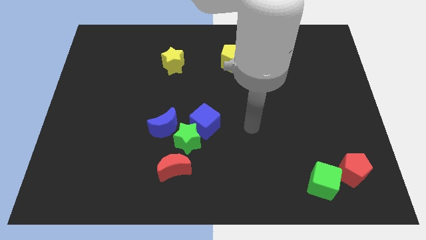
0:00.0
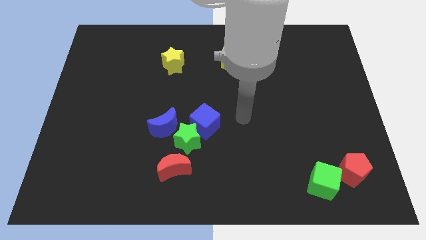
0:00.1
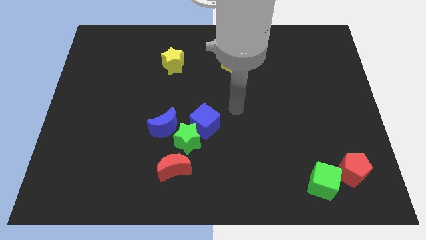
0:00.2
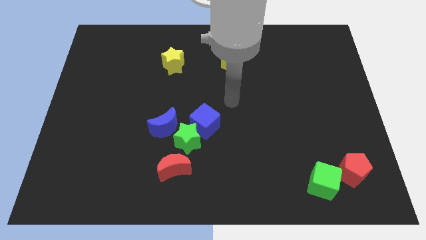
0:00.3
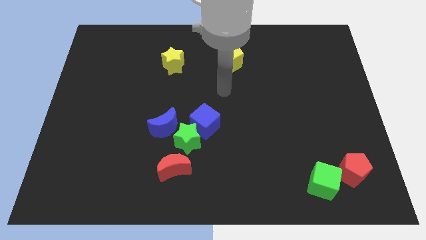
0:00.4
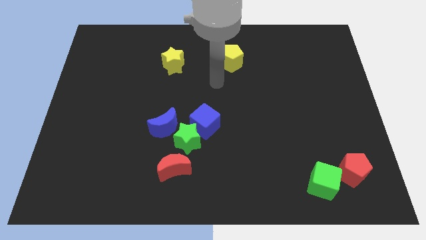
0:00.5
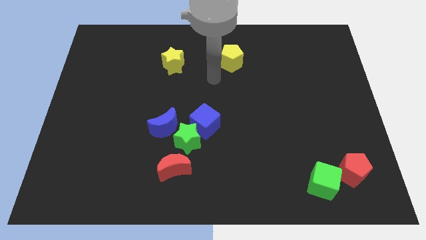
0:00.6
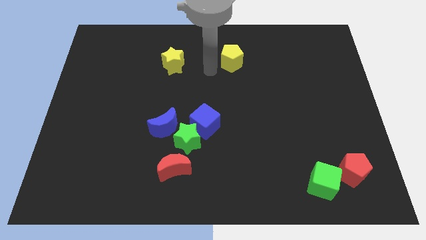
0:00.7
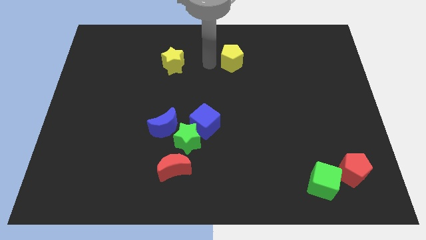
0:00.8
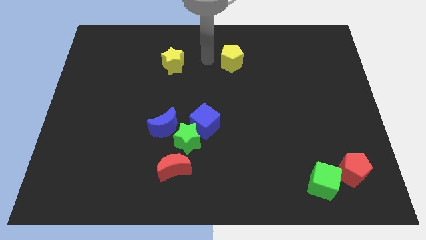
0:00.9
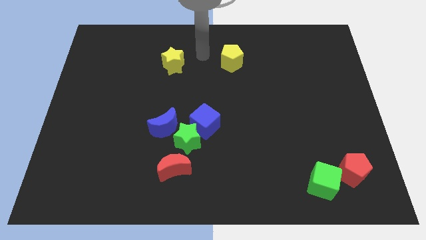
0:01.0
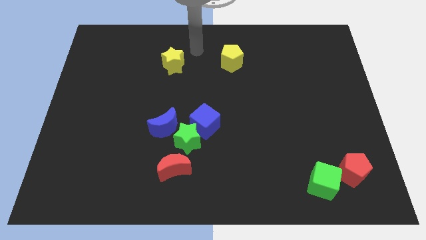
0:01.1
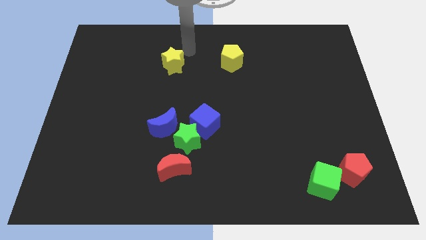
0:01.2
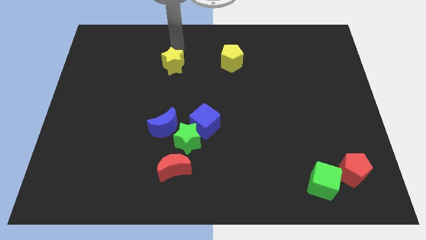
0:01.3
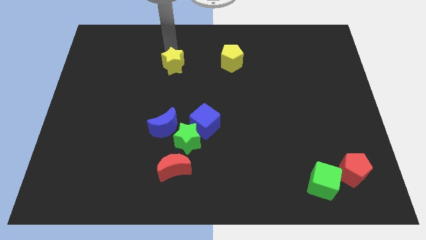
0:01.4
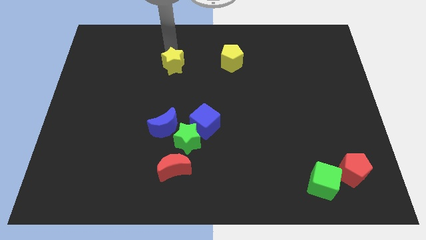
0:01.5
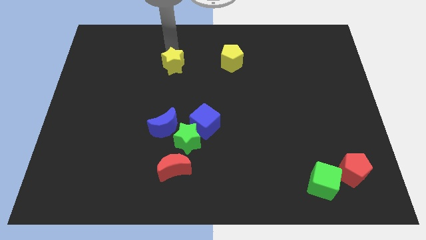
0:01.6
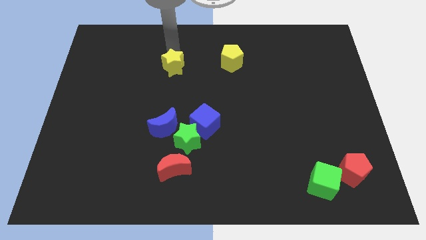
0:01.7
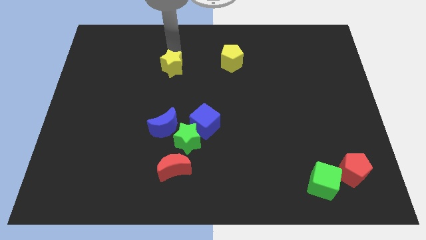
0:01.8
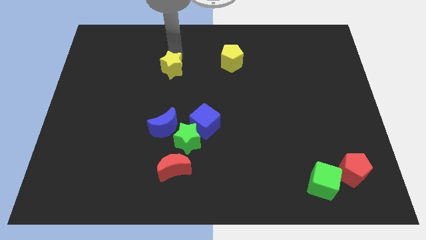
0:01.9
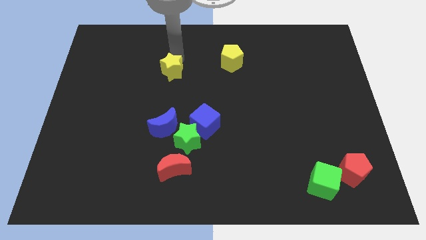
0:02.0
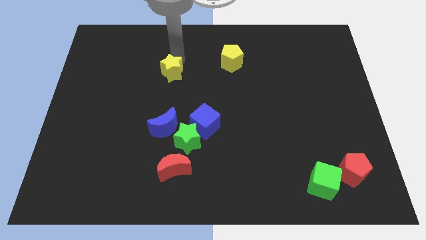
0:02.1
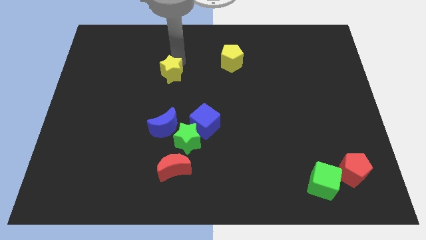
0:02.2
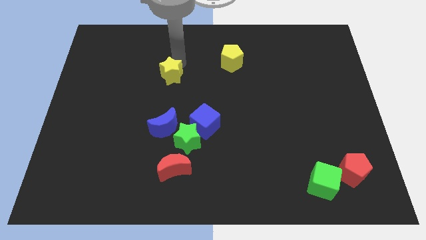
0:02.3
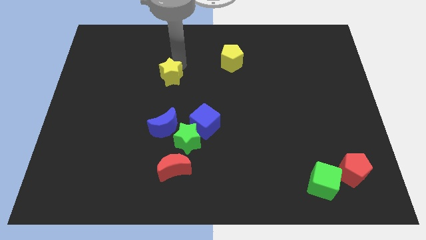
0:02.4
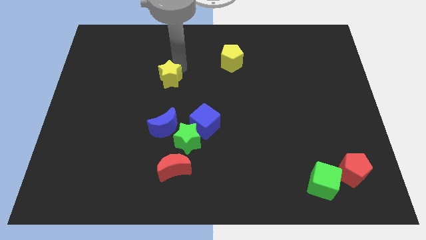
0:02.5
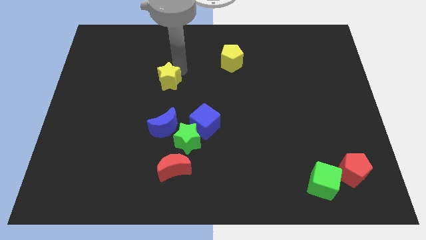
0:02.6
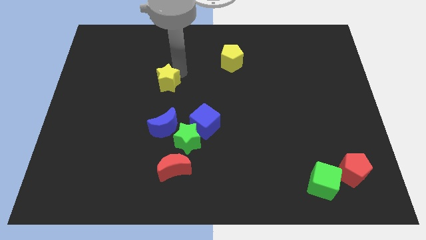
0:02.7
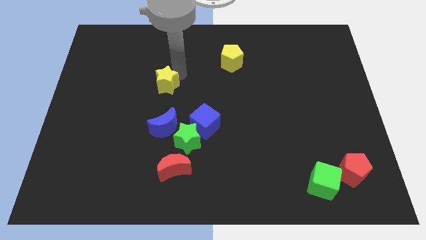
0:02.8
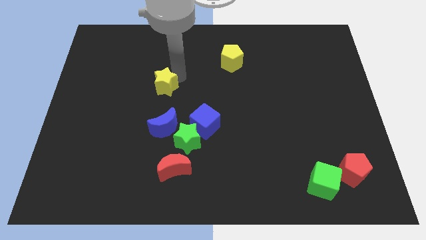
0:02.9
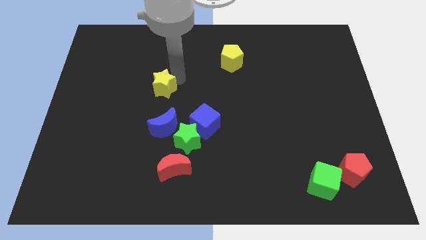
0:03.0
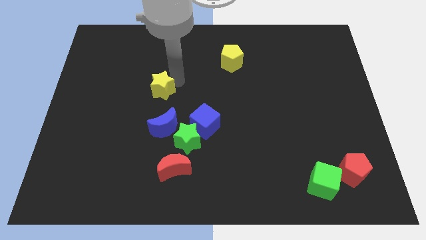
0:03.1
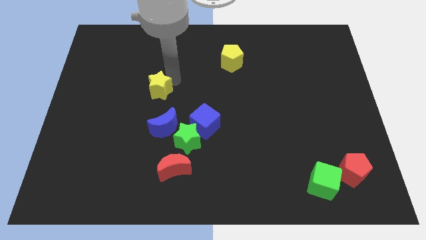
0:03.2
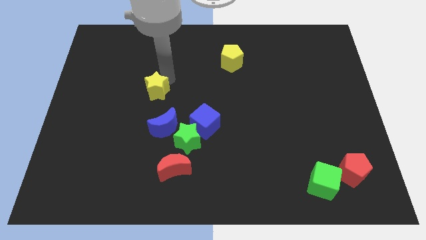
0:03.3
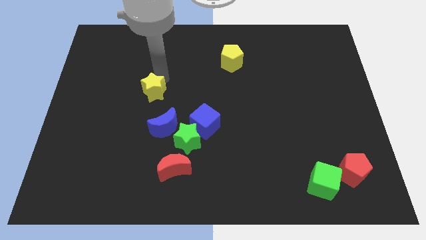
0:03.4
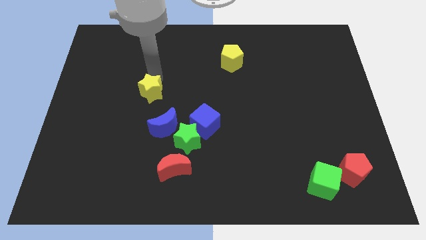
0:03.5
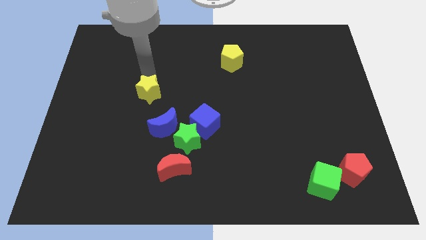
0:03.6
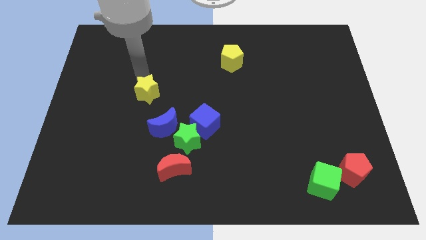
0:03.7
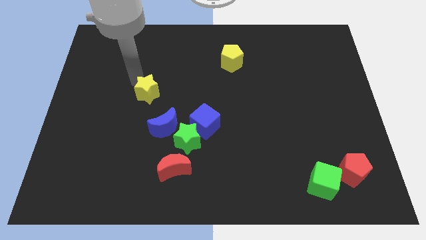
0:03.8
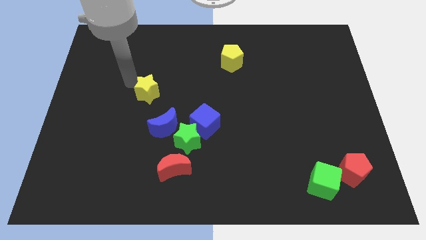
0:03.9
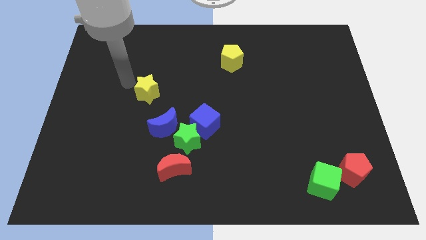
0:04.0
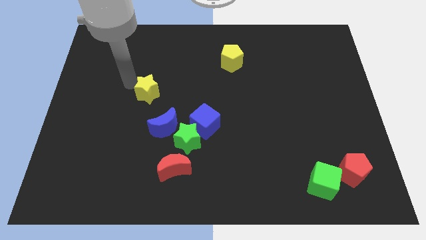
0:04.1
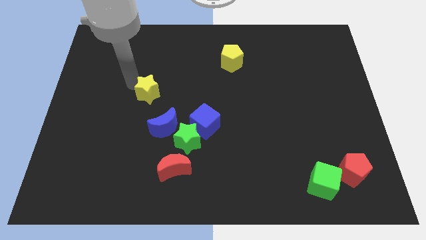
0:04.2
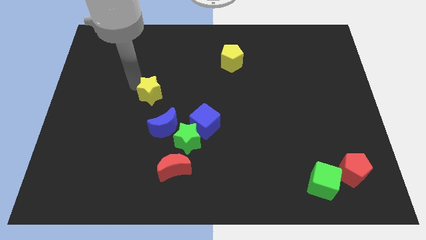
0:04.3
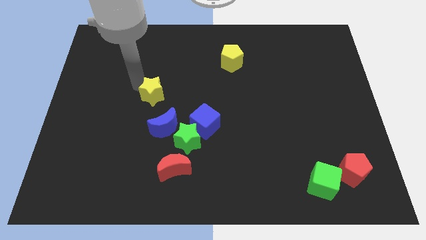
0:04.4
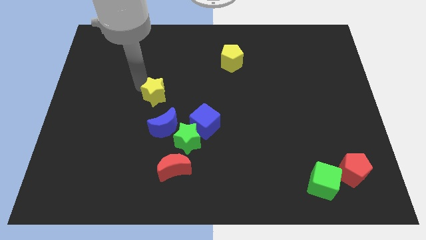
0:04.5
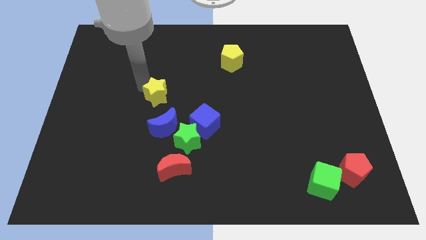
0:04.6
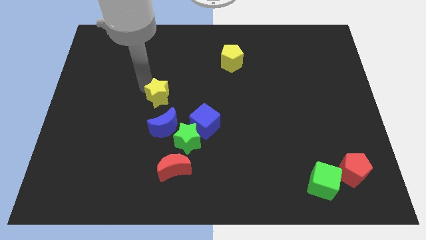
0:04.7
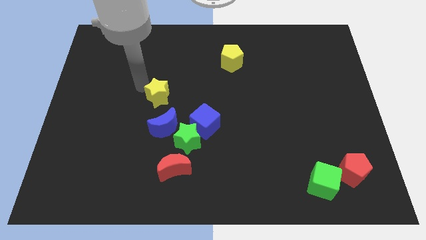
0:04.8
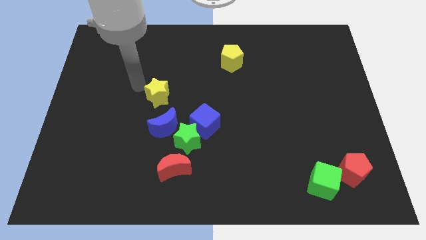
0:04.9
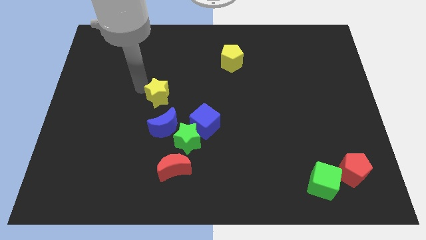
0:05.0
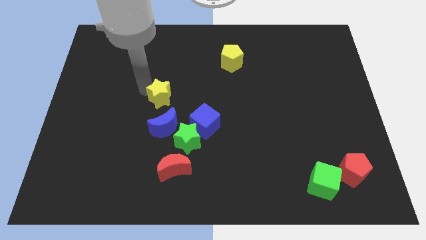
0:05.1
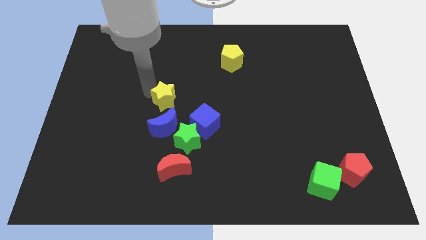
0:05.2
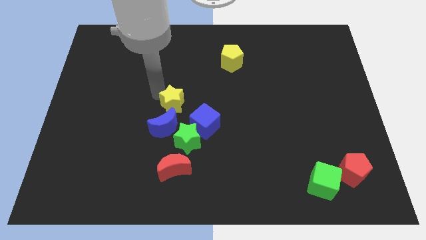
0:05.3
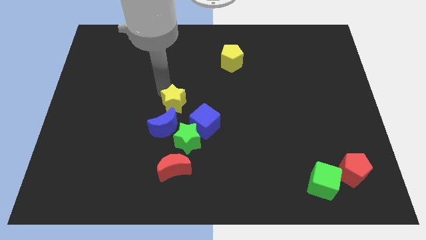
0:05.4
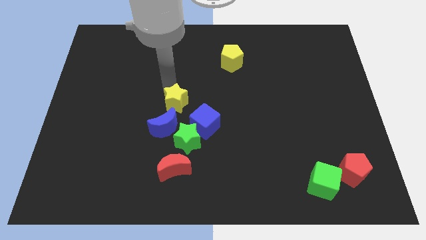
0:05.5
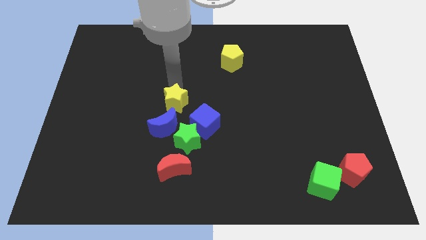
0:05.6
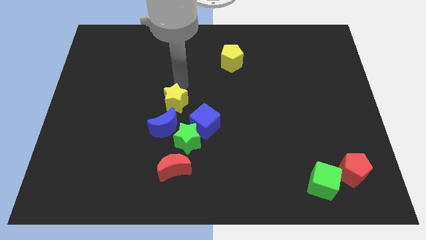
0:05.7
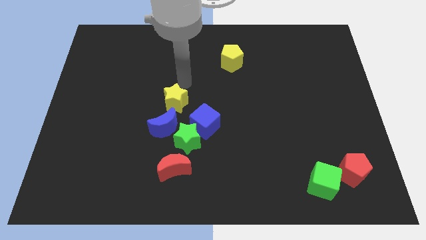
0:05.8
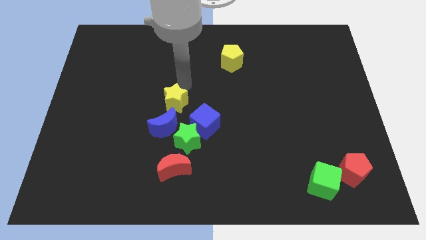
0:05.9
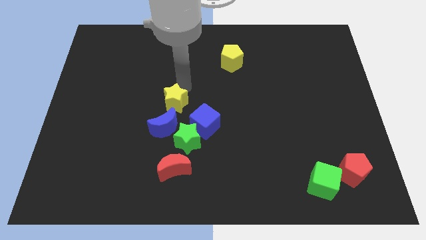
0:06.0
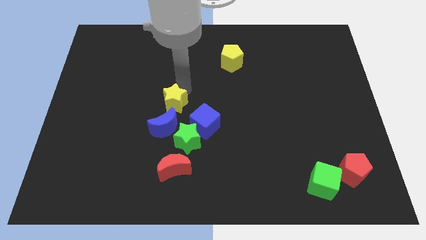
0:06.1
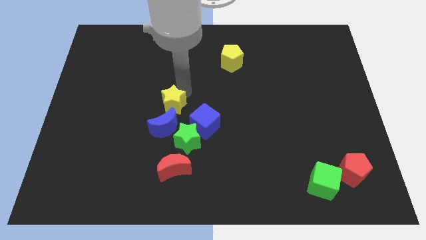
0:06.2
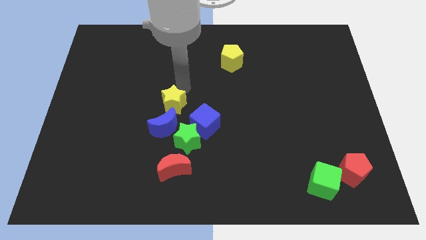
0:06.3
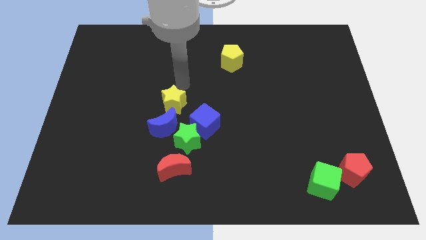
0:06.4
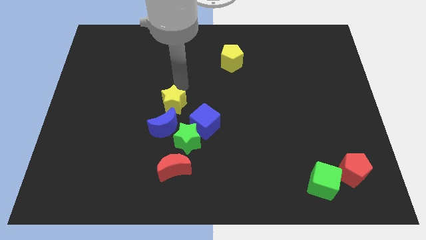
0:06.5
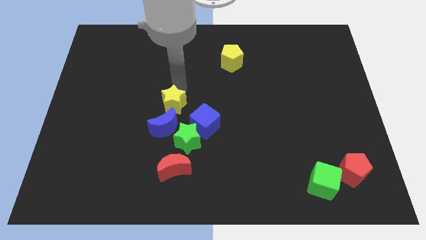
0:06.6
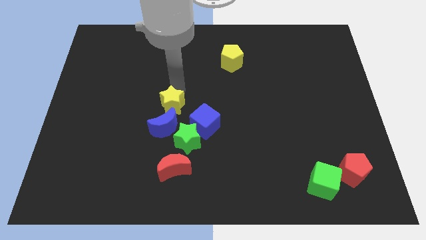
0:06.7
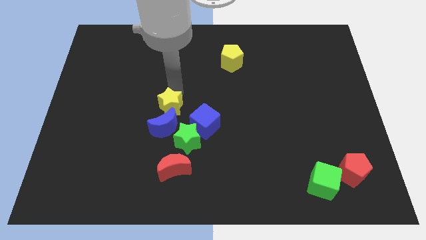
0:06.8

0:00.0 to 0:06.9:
move the yellow star towards the blue moon
